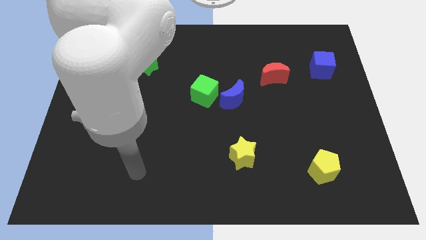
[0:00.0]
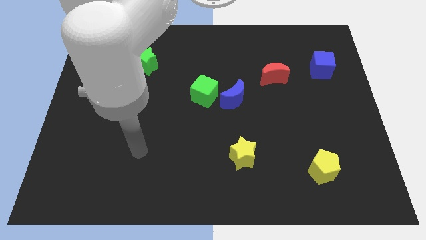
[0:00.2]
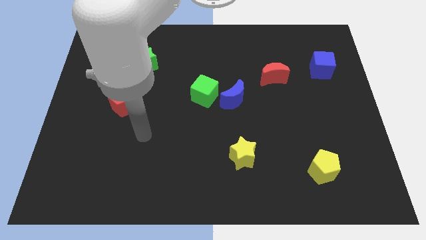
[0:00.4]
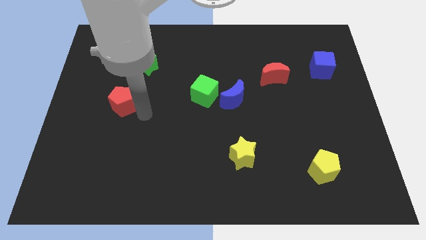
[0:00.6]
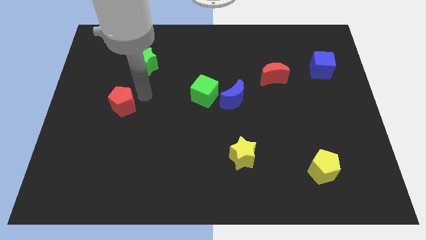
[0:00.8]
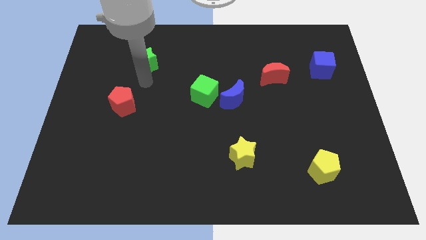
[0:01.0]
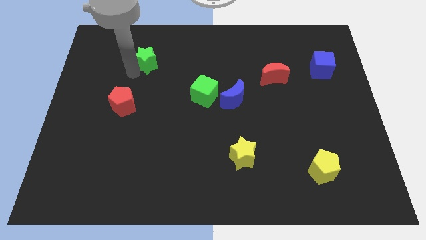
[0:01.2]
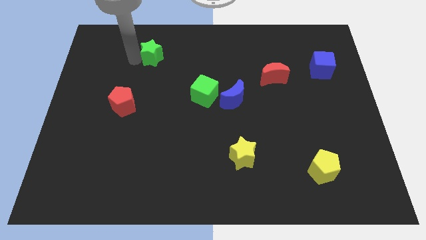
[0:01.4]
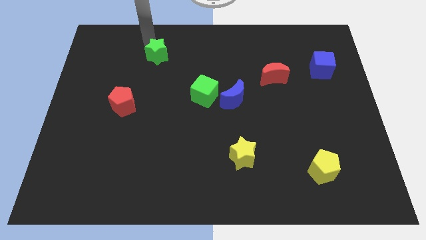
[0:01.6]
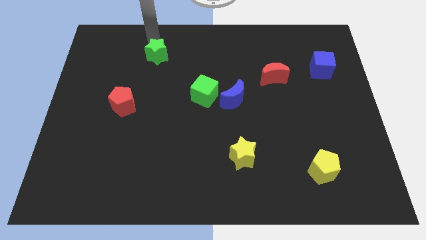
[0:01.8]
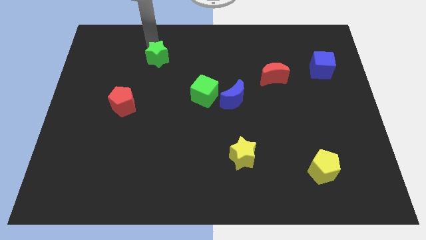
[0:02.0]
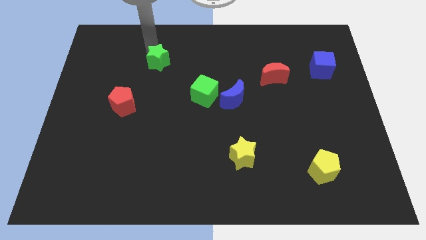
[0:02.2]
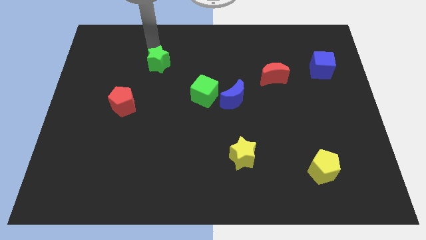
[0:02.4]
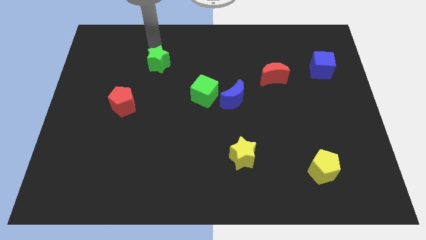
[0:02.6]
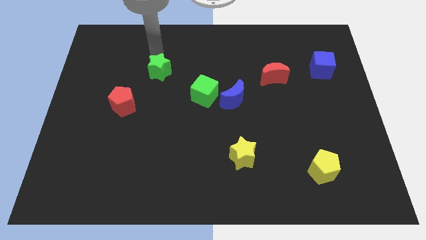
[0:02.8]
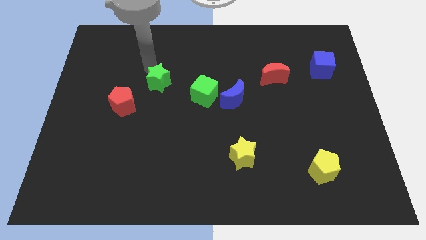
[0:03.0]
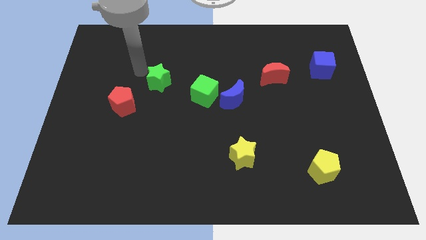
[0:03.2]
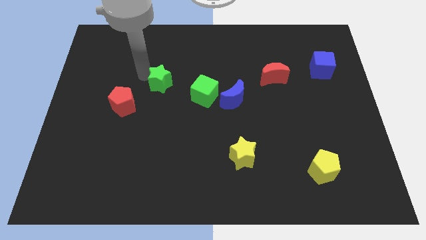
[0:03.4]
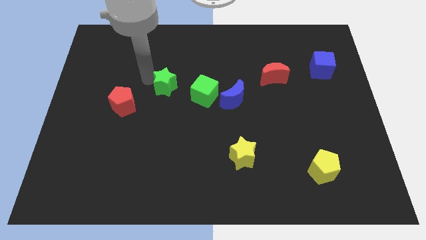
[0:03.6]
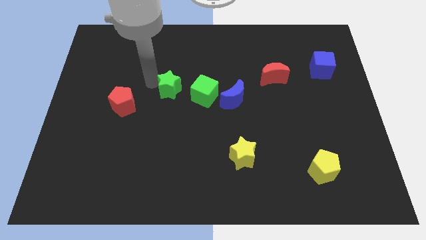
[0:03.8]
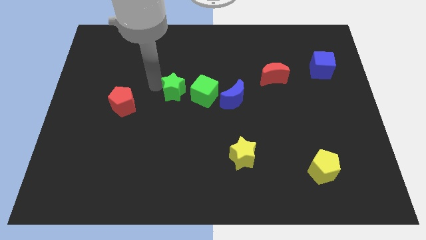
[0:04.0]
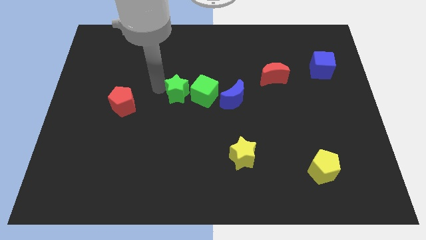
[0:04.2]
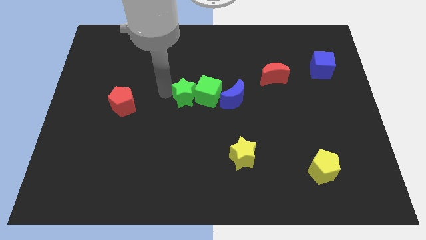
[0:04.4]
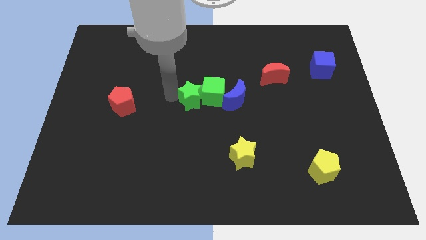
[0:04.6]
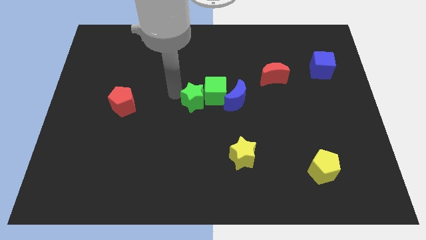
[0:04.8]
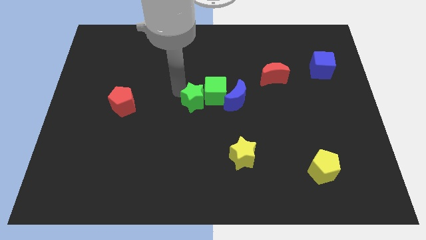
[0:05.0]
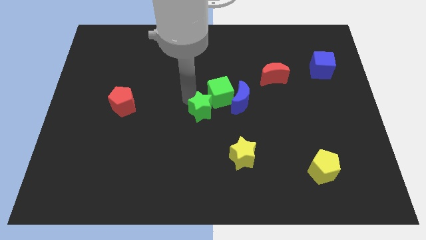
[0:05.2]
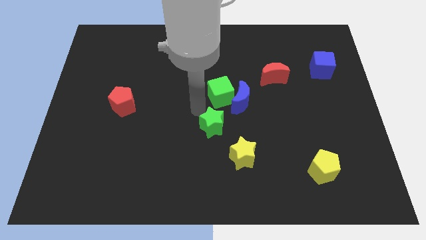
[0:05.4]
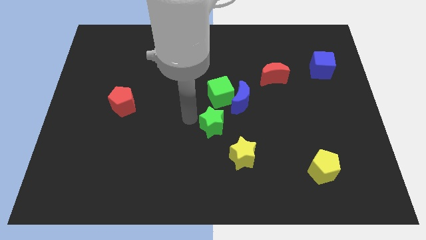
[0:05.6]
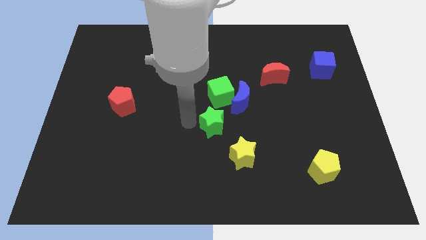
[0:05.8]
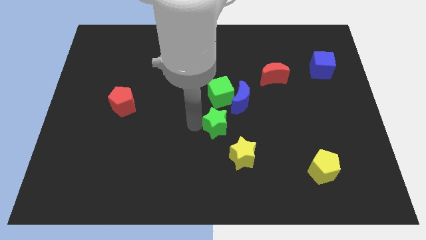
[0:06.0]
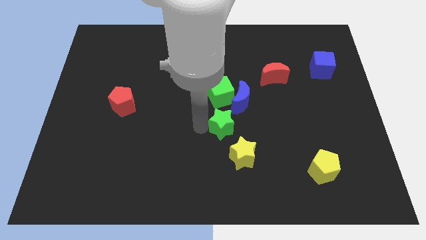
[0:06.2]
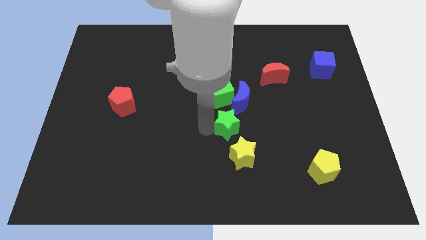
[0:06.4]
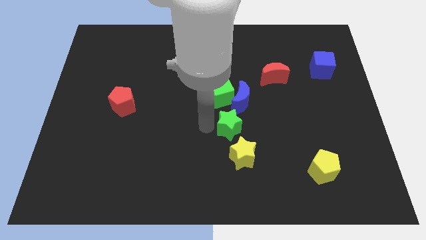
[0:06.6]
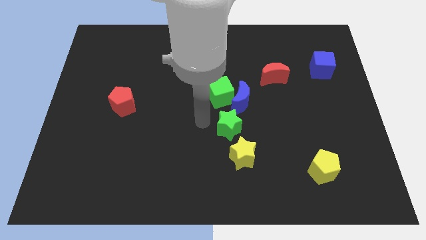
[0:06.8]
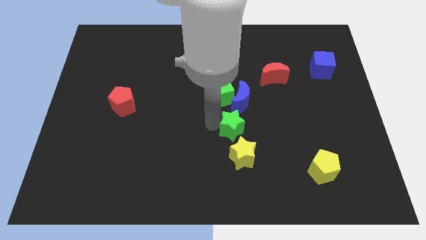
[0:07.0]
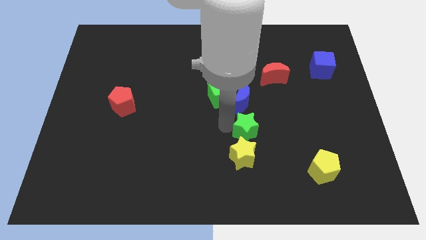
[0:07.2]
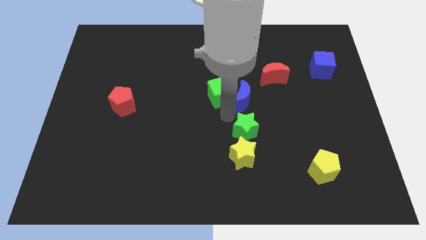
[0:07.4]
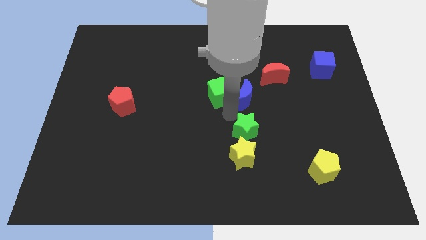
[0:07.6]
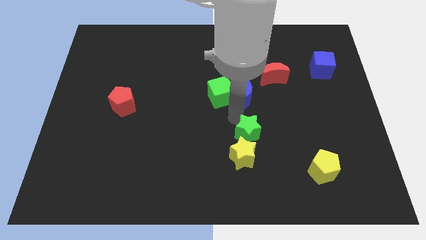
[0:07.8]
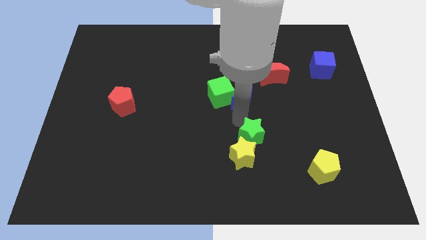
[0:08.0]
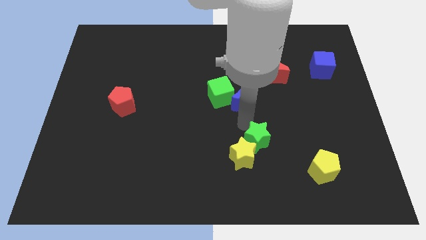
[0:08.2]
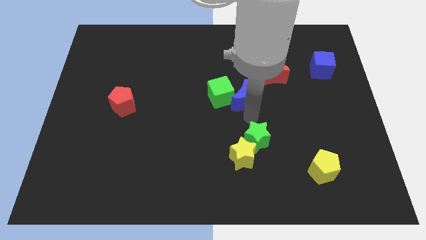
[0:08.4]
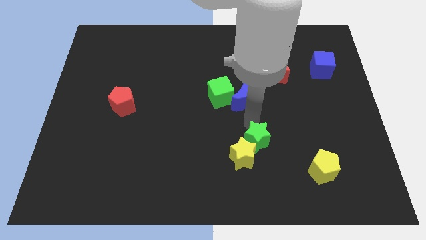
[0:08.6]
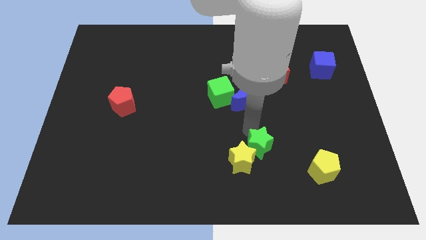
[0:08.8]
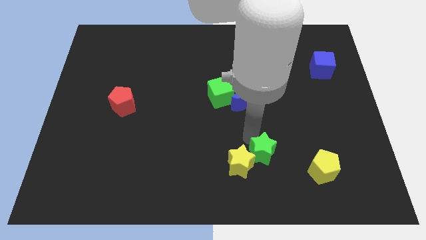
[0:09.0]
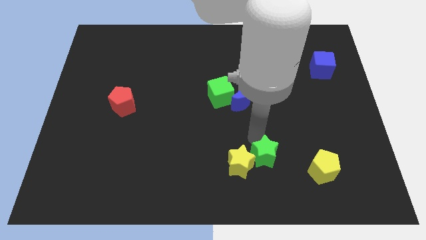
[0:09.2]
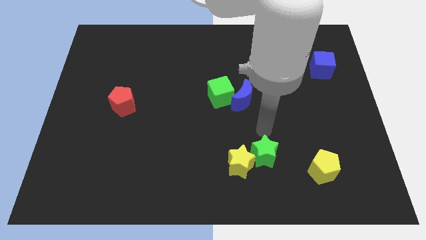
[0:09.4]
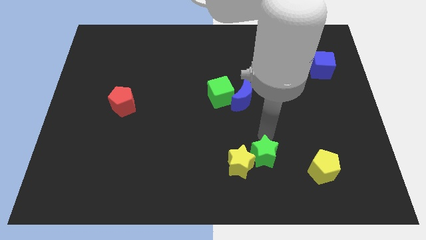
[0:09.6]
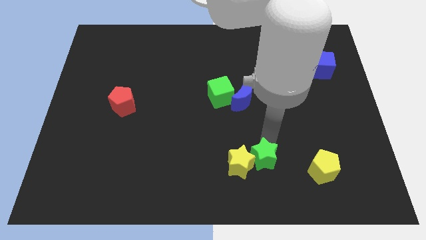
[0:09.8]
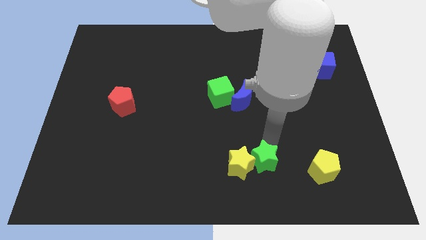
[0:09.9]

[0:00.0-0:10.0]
slide the green star diagonally down and to the right of the yellow star

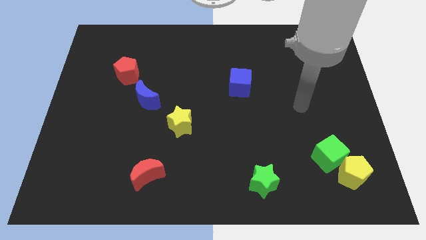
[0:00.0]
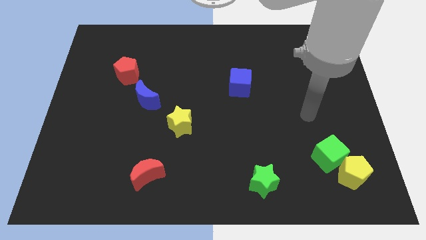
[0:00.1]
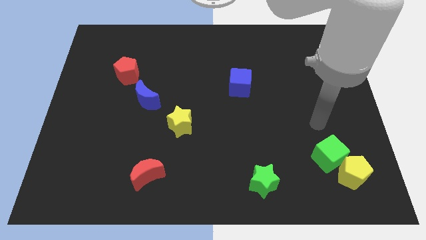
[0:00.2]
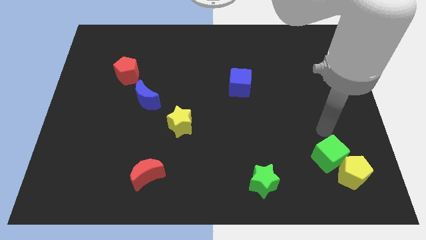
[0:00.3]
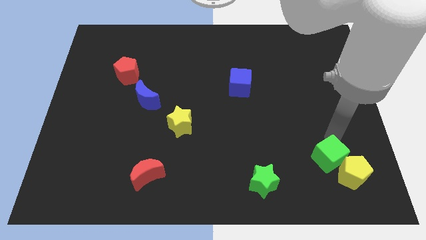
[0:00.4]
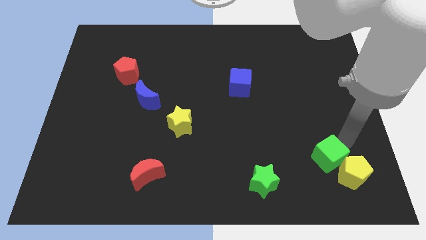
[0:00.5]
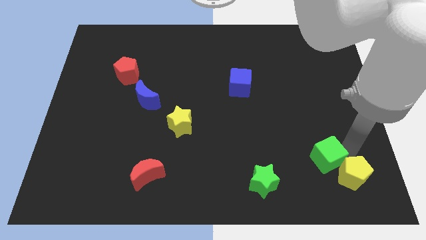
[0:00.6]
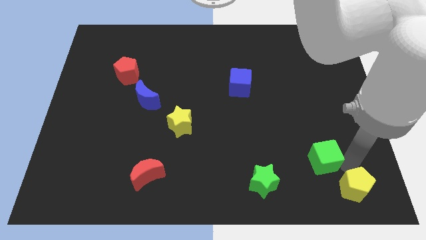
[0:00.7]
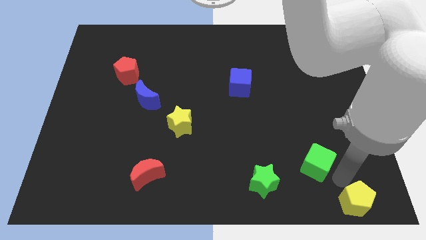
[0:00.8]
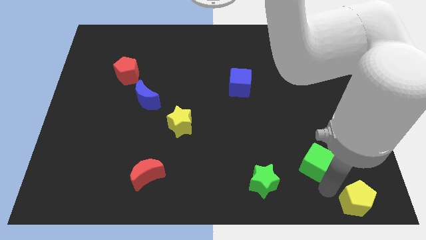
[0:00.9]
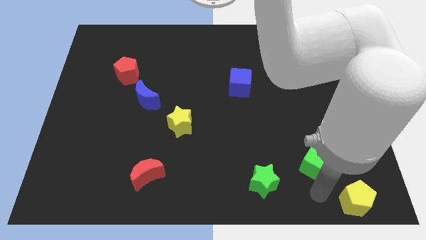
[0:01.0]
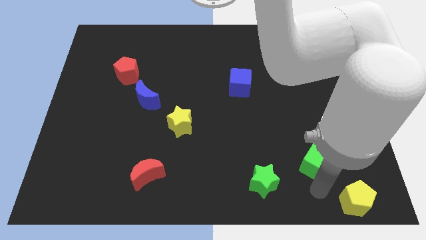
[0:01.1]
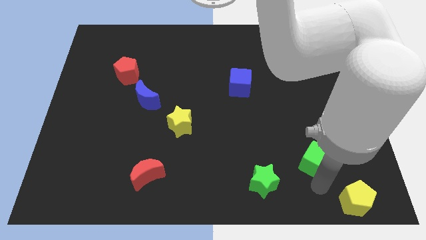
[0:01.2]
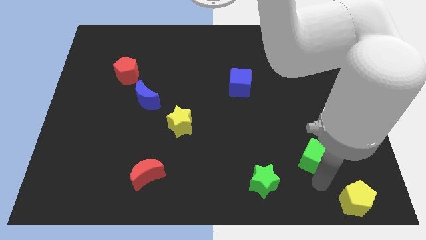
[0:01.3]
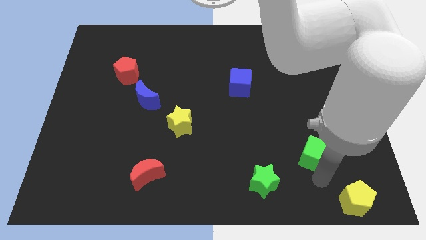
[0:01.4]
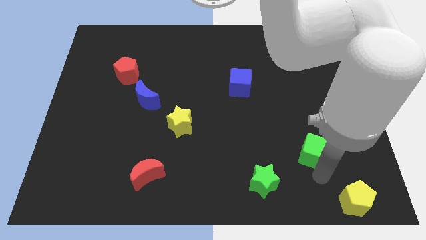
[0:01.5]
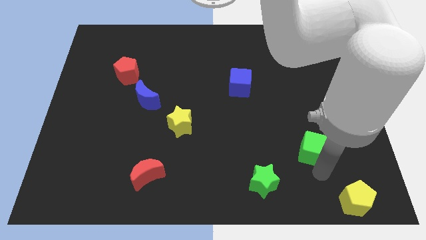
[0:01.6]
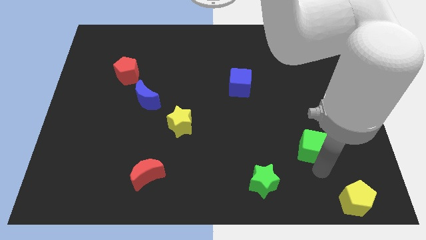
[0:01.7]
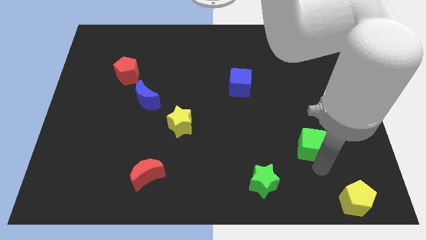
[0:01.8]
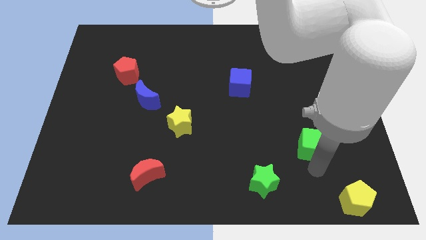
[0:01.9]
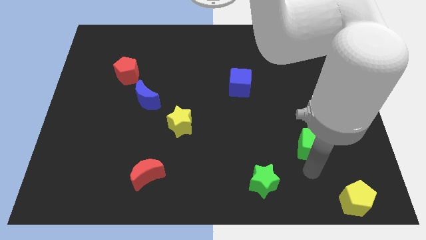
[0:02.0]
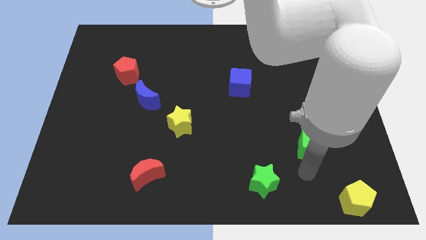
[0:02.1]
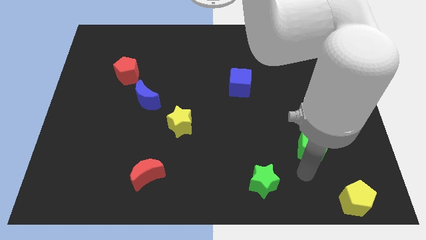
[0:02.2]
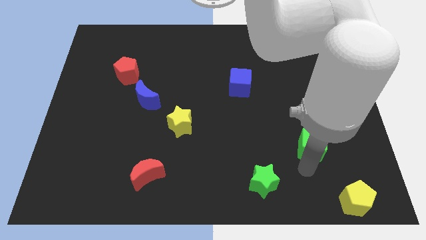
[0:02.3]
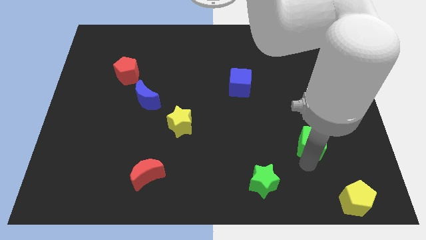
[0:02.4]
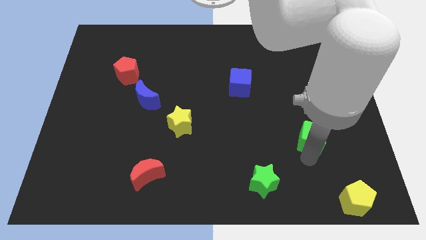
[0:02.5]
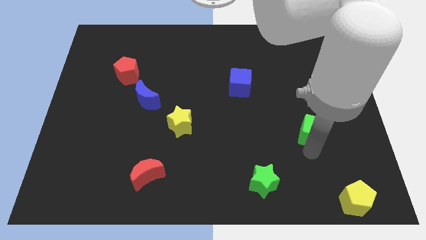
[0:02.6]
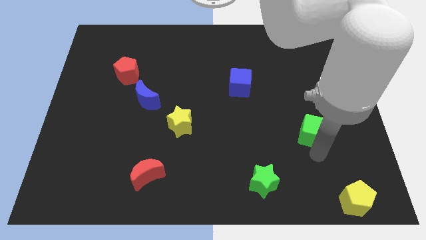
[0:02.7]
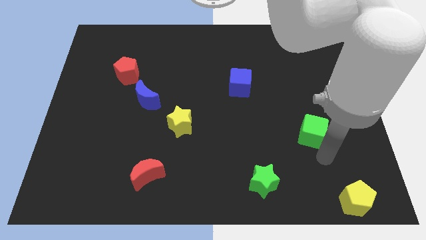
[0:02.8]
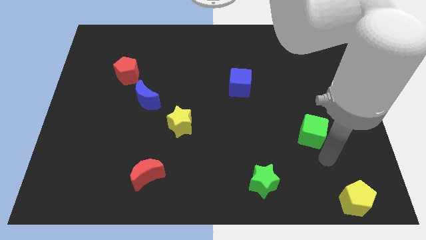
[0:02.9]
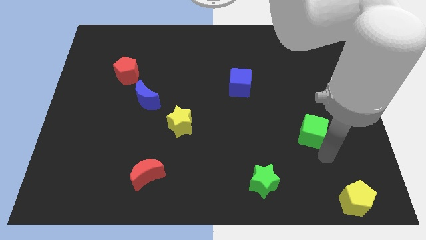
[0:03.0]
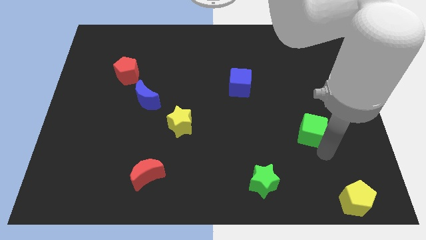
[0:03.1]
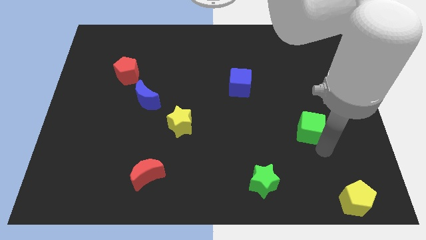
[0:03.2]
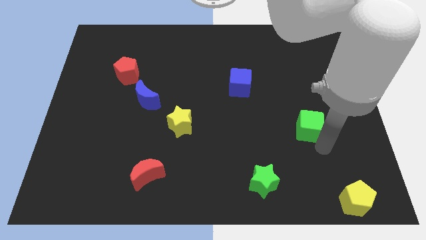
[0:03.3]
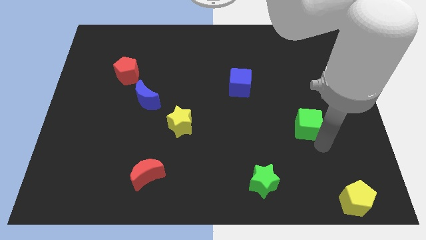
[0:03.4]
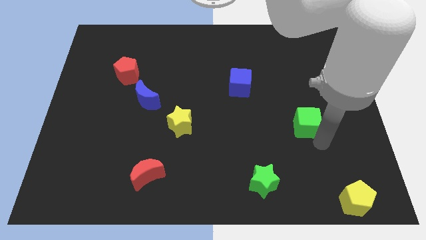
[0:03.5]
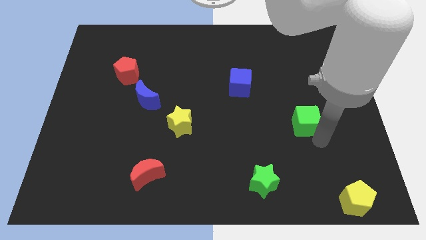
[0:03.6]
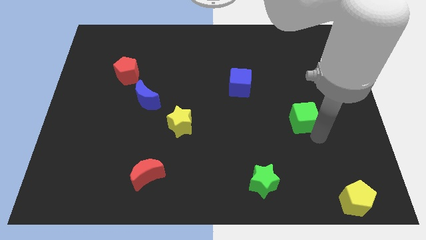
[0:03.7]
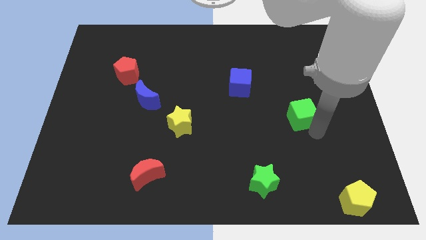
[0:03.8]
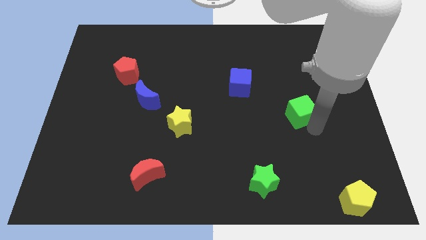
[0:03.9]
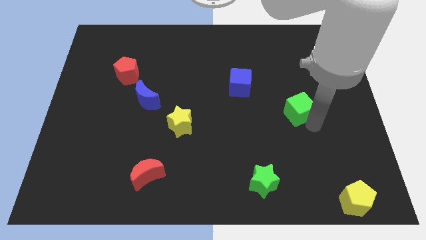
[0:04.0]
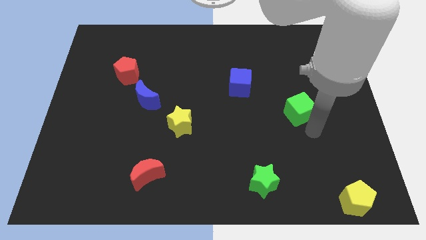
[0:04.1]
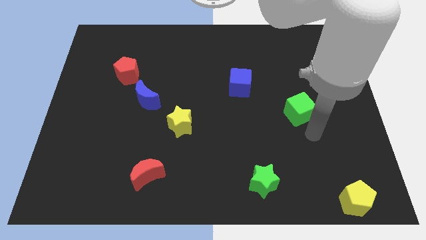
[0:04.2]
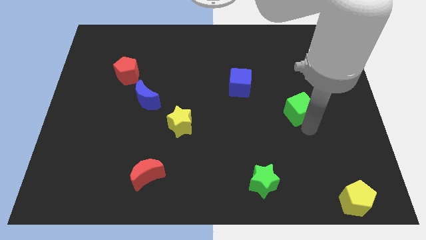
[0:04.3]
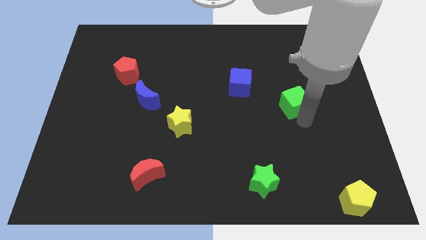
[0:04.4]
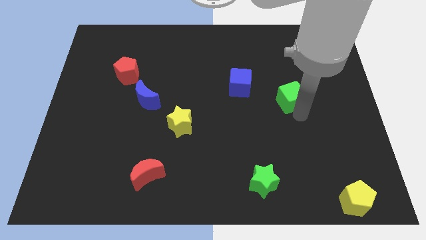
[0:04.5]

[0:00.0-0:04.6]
move the green cube to the right side of the blue cube
